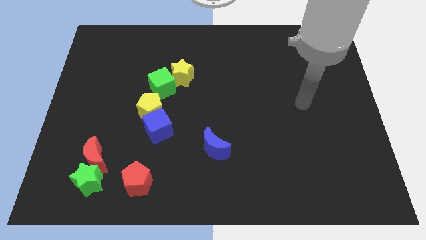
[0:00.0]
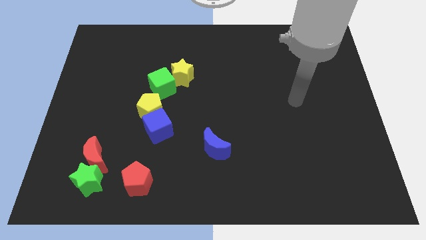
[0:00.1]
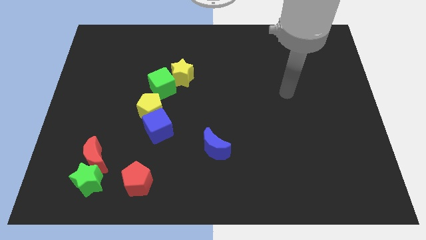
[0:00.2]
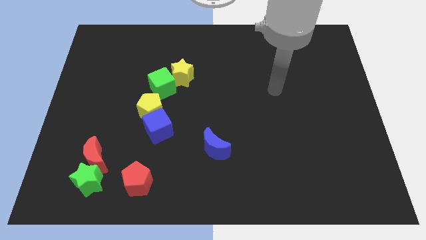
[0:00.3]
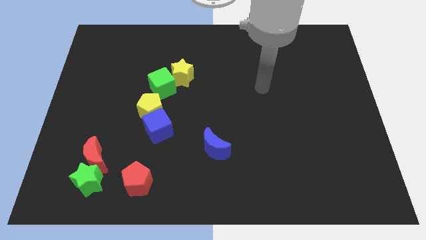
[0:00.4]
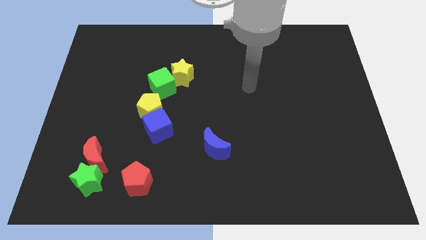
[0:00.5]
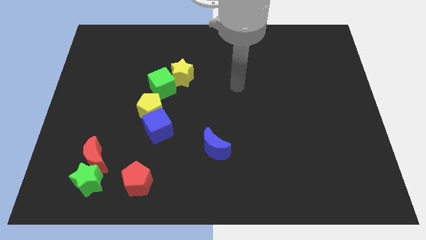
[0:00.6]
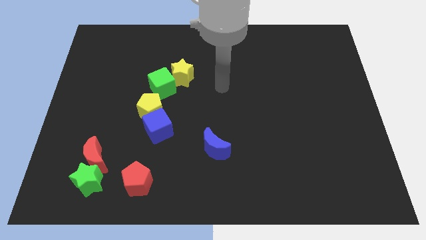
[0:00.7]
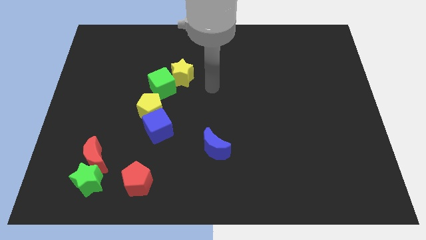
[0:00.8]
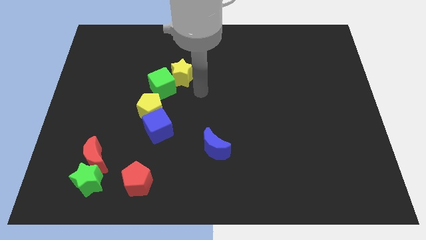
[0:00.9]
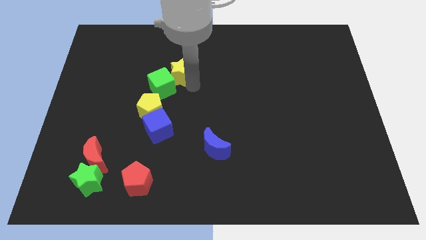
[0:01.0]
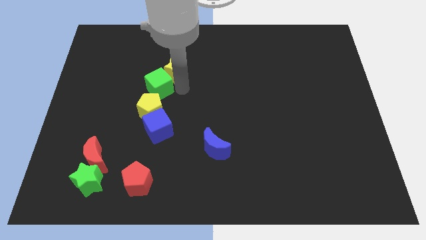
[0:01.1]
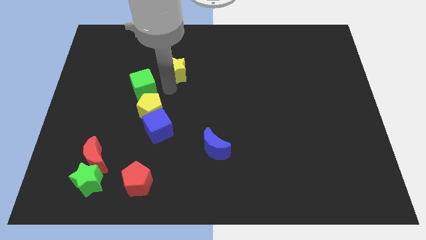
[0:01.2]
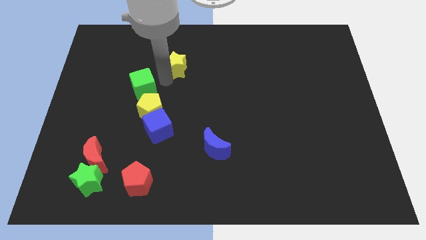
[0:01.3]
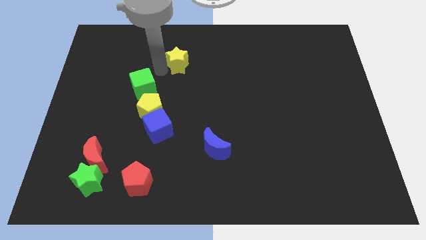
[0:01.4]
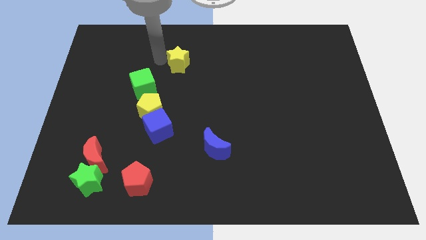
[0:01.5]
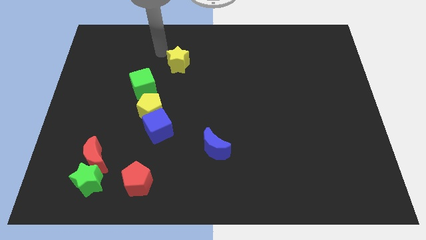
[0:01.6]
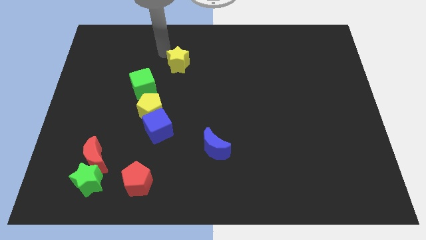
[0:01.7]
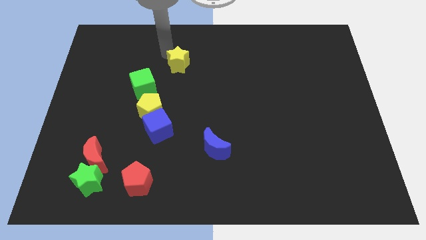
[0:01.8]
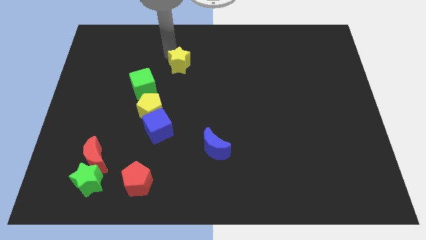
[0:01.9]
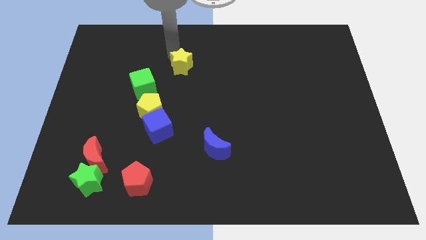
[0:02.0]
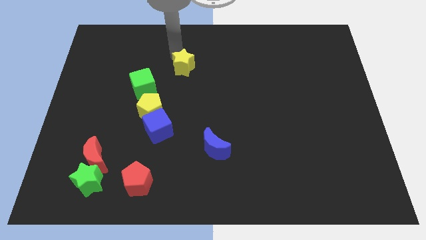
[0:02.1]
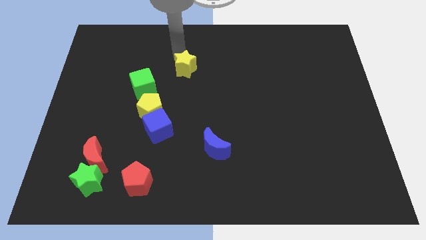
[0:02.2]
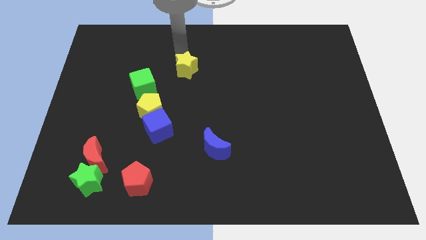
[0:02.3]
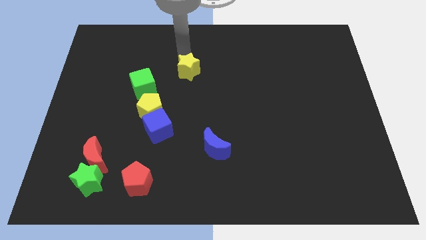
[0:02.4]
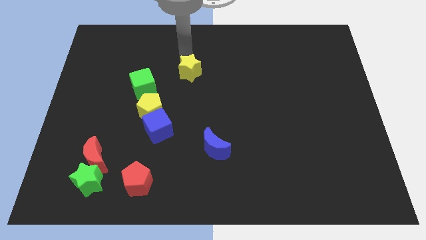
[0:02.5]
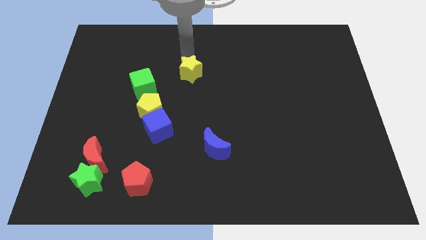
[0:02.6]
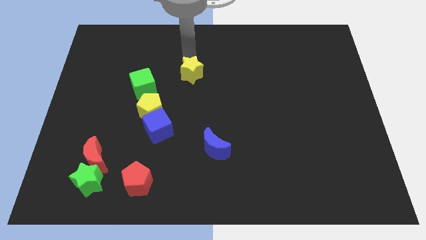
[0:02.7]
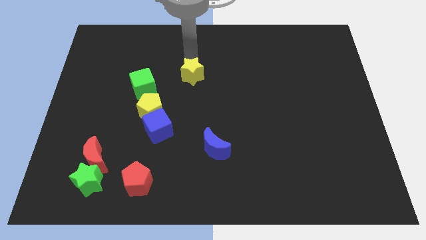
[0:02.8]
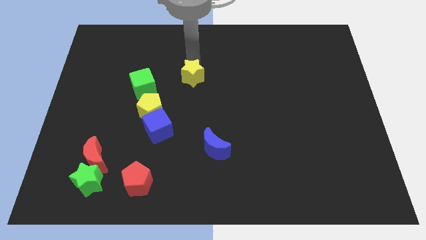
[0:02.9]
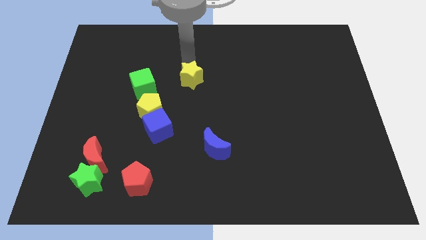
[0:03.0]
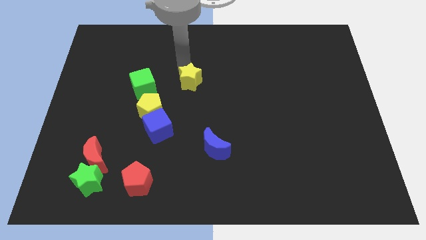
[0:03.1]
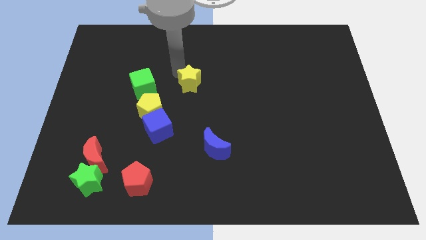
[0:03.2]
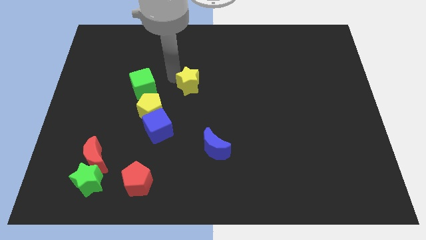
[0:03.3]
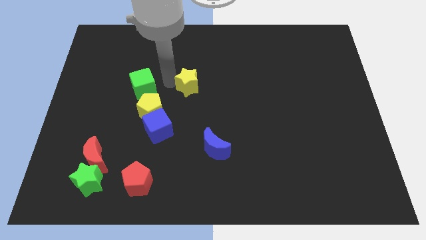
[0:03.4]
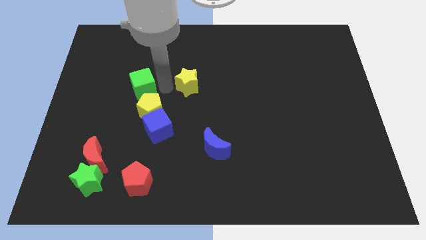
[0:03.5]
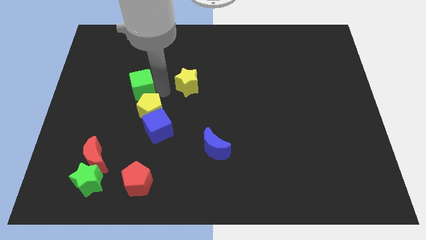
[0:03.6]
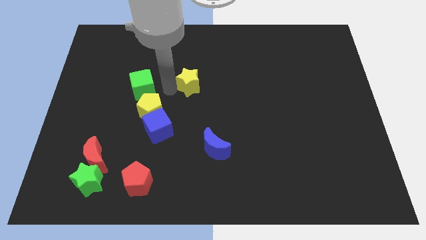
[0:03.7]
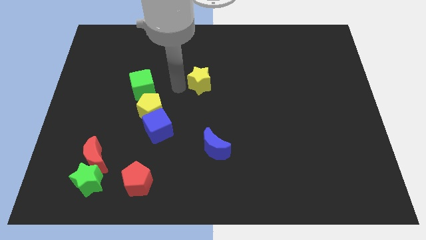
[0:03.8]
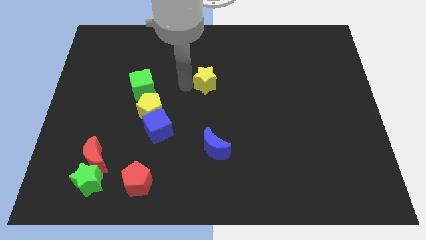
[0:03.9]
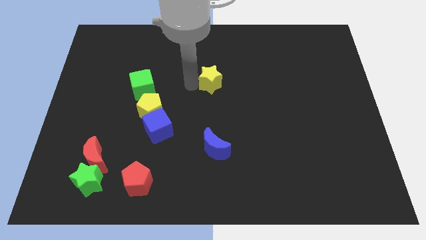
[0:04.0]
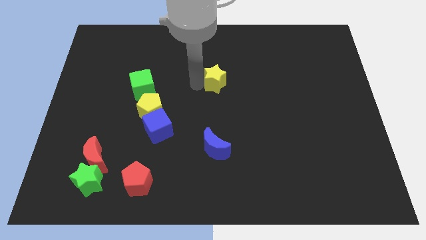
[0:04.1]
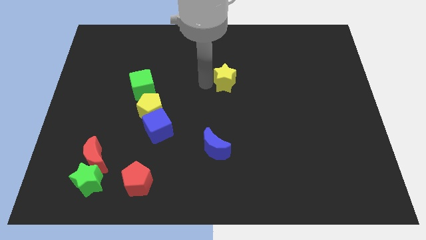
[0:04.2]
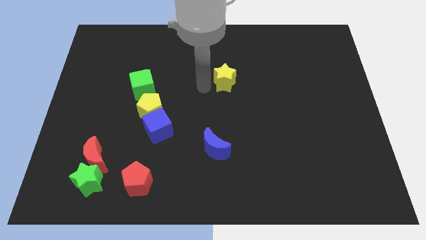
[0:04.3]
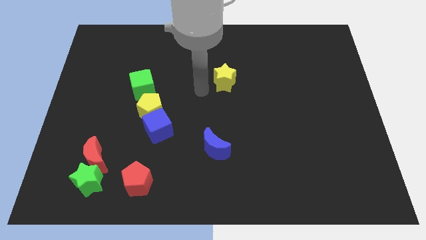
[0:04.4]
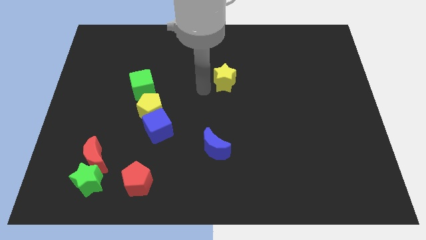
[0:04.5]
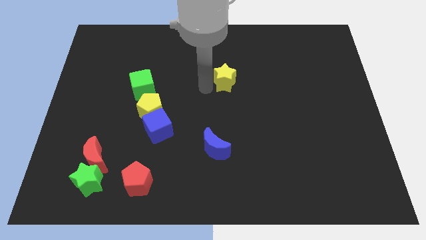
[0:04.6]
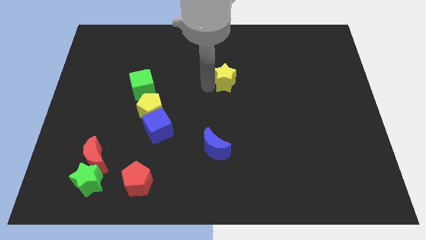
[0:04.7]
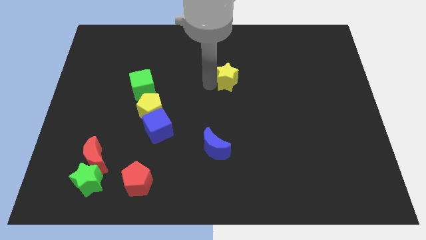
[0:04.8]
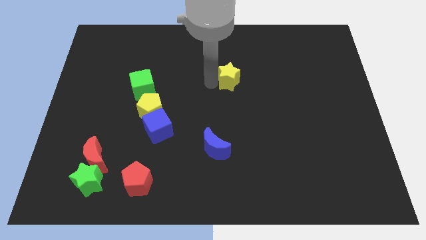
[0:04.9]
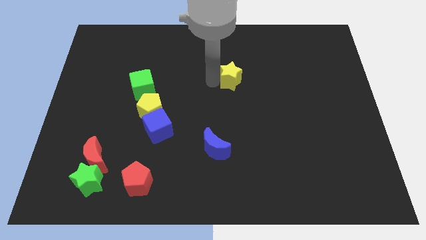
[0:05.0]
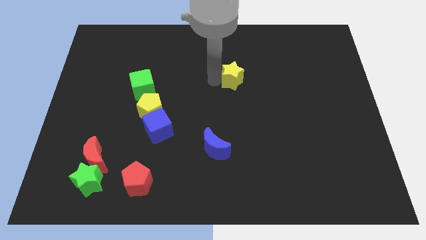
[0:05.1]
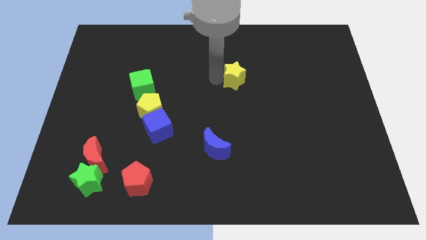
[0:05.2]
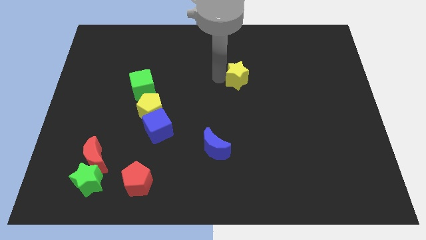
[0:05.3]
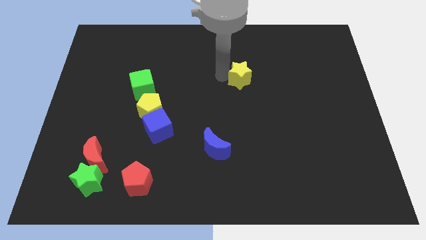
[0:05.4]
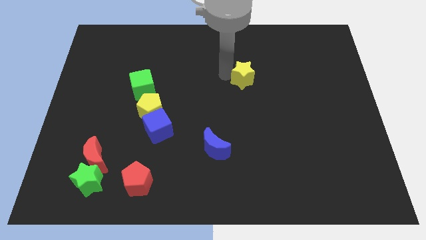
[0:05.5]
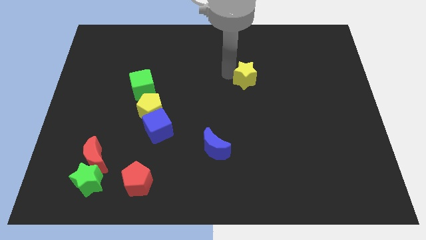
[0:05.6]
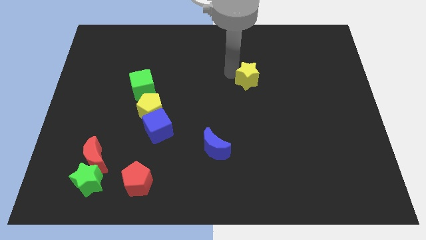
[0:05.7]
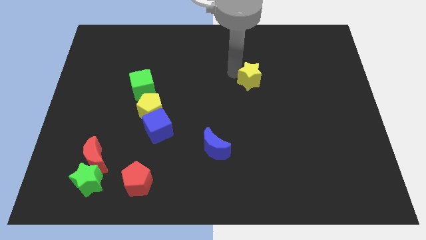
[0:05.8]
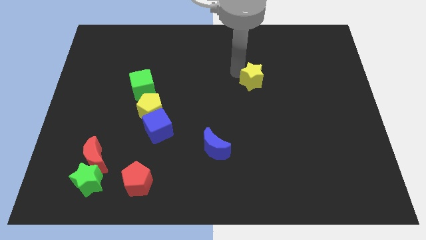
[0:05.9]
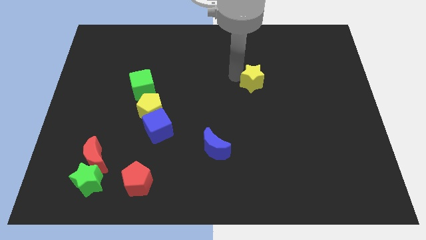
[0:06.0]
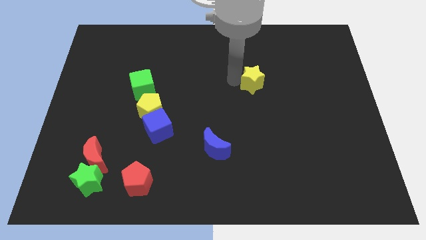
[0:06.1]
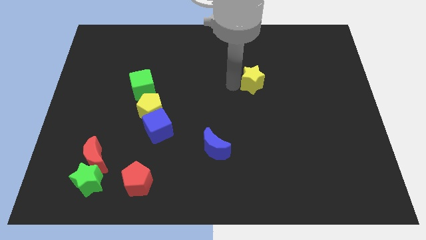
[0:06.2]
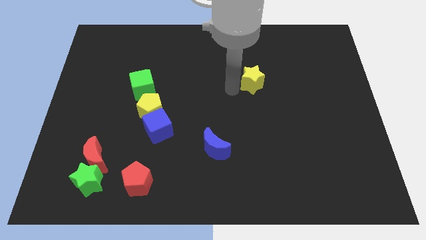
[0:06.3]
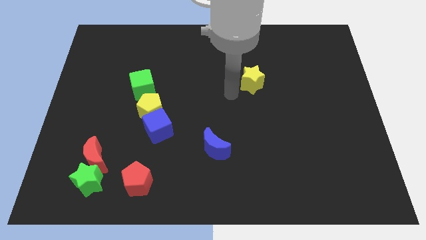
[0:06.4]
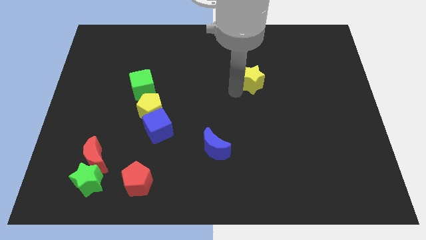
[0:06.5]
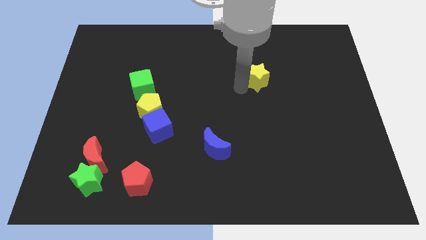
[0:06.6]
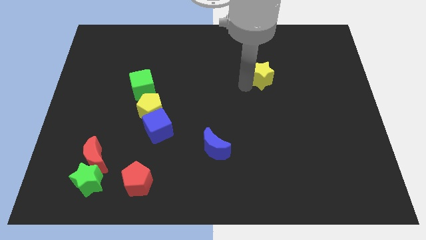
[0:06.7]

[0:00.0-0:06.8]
slide the yellow star right

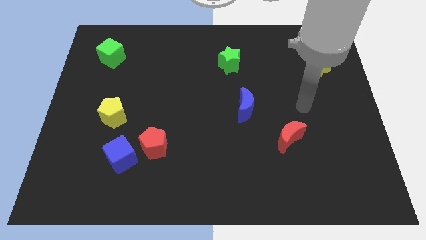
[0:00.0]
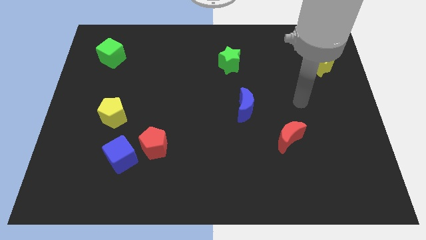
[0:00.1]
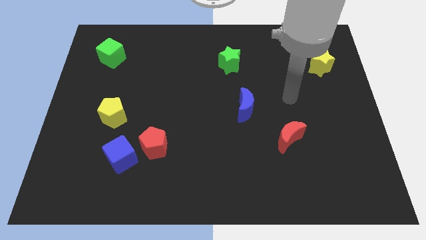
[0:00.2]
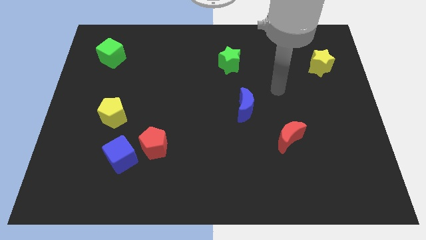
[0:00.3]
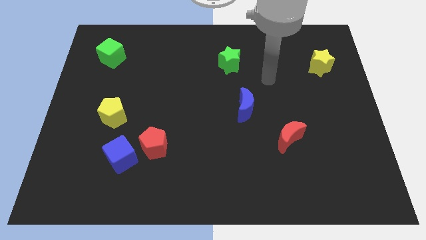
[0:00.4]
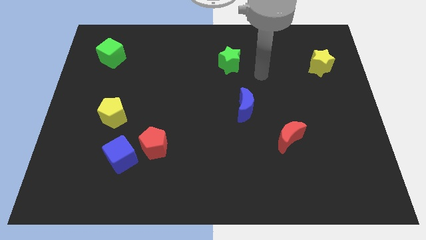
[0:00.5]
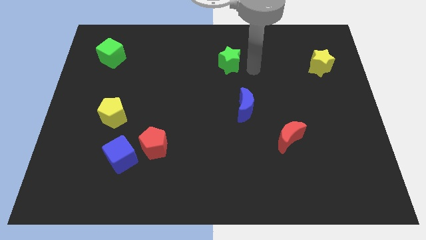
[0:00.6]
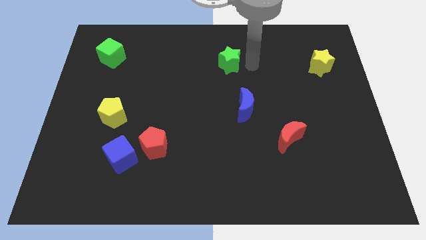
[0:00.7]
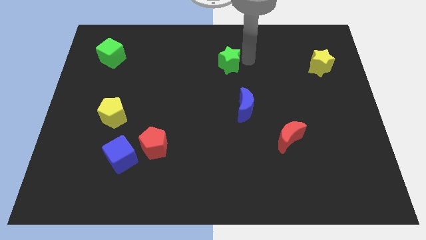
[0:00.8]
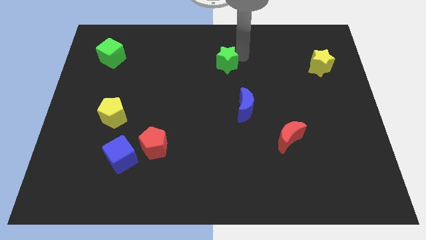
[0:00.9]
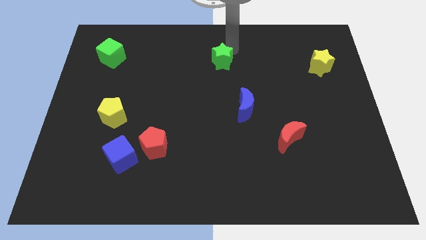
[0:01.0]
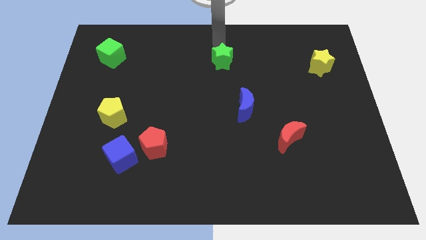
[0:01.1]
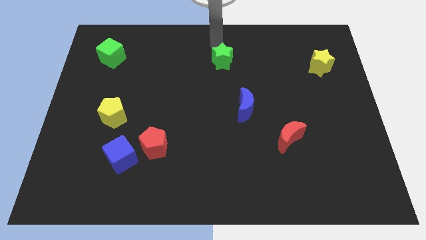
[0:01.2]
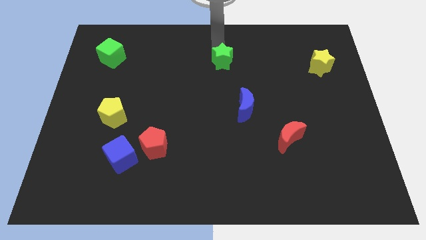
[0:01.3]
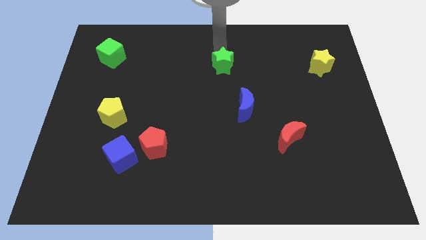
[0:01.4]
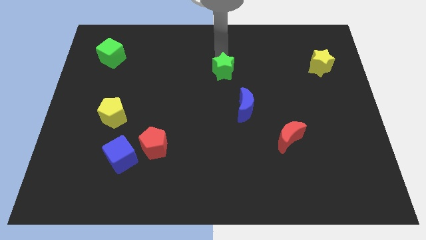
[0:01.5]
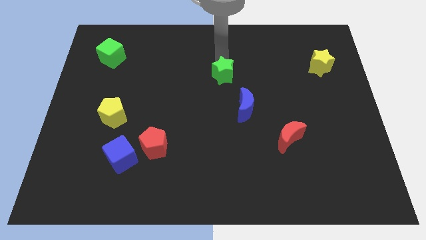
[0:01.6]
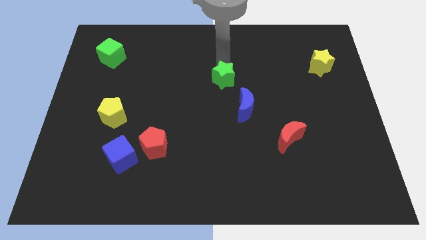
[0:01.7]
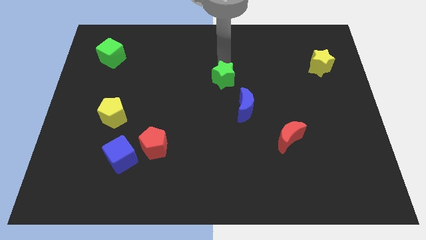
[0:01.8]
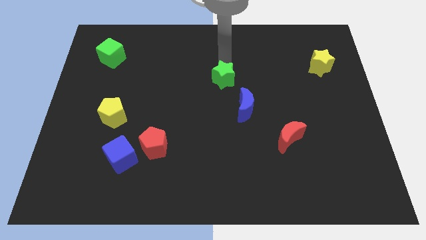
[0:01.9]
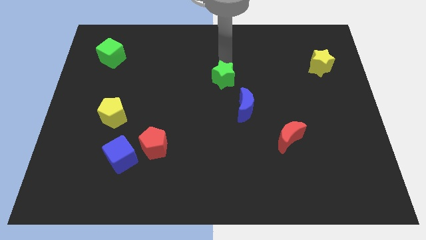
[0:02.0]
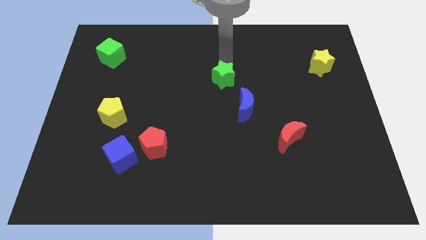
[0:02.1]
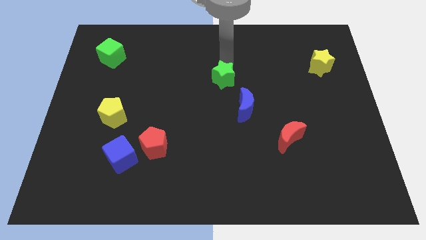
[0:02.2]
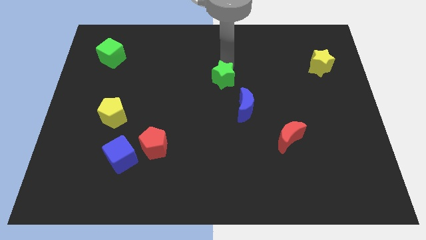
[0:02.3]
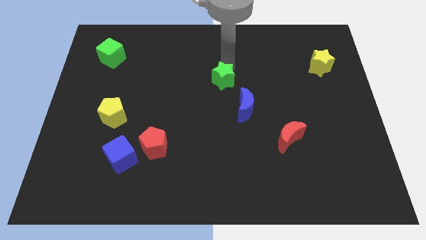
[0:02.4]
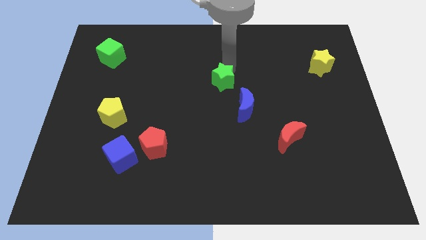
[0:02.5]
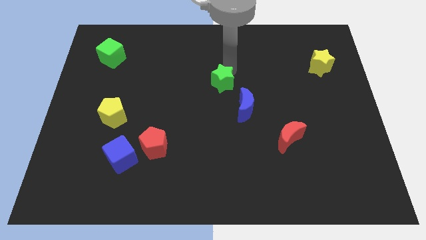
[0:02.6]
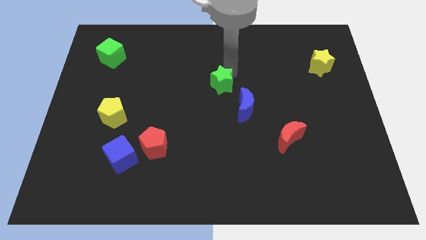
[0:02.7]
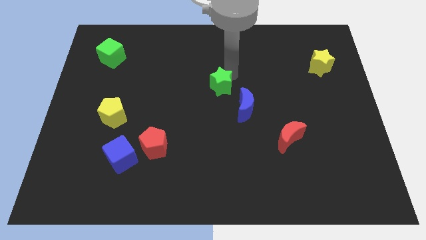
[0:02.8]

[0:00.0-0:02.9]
move the green star down a little bit
